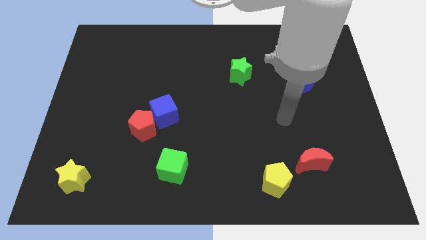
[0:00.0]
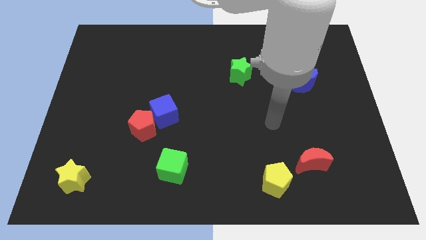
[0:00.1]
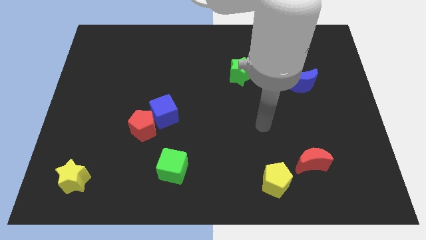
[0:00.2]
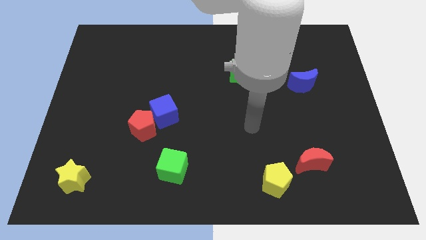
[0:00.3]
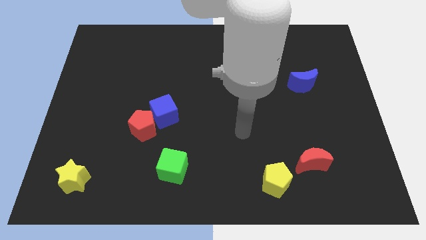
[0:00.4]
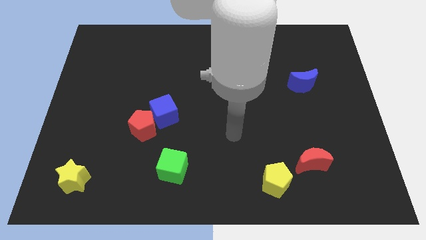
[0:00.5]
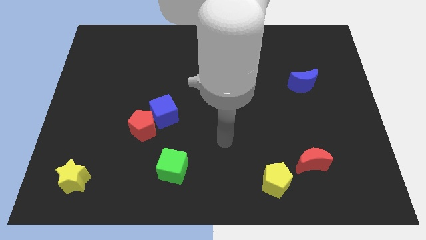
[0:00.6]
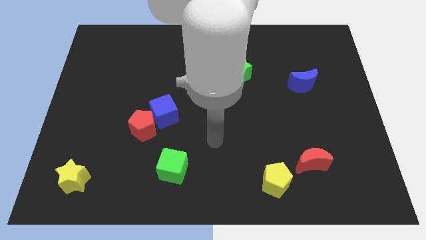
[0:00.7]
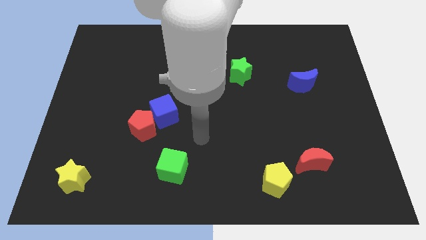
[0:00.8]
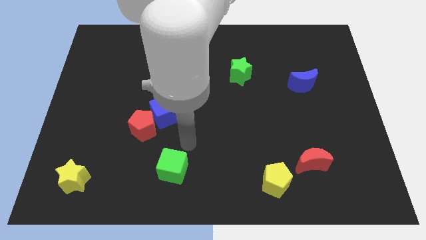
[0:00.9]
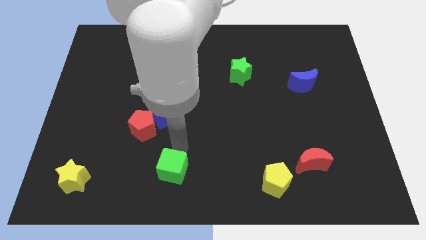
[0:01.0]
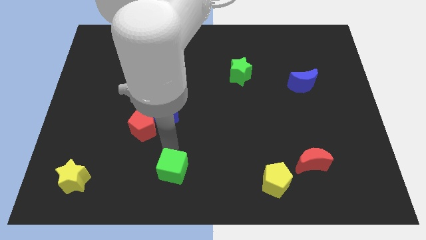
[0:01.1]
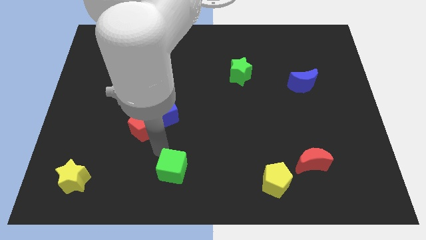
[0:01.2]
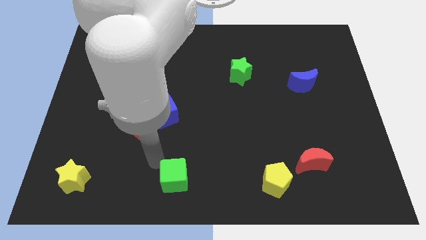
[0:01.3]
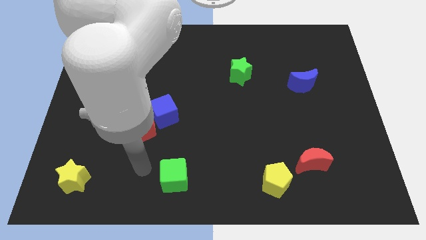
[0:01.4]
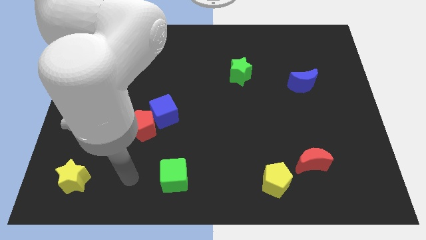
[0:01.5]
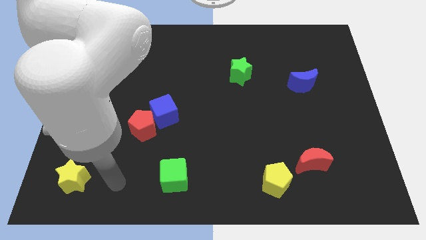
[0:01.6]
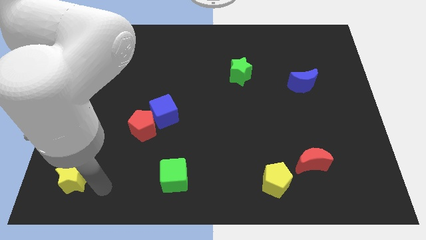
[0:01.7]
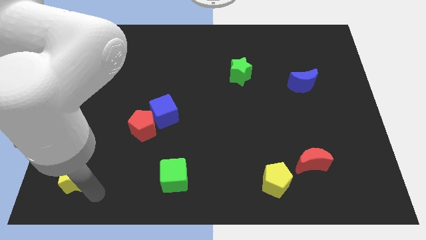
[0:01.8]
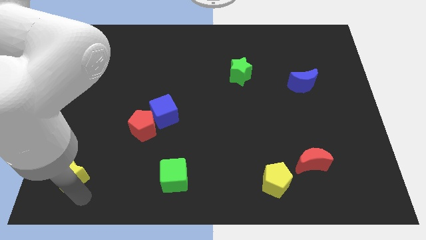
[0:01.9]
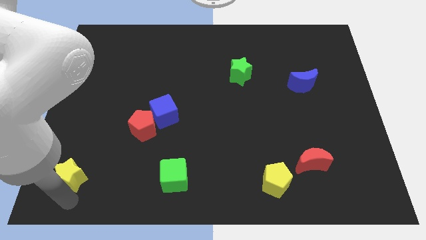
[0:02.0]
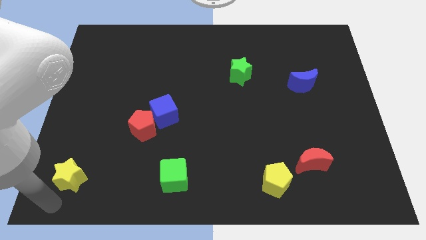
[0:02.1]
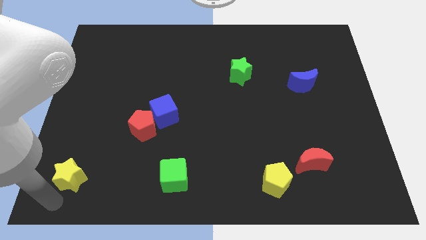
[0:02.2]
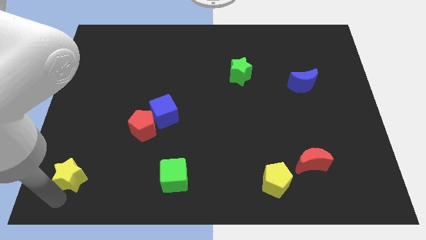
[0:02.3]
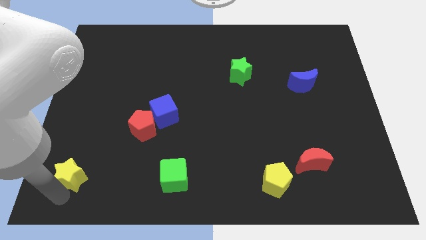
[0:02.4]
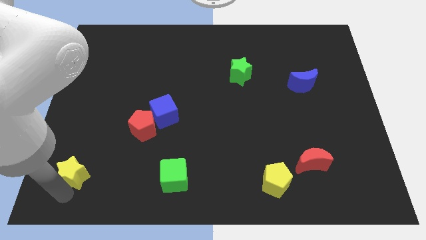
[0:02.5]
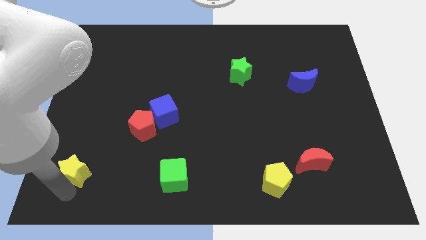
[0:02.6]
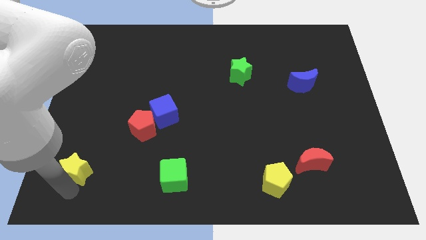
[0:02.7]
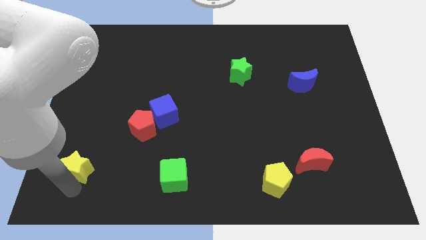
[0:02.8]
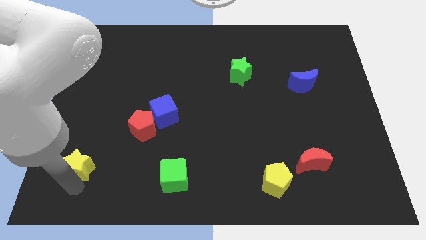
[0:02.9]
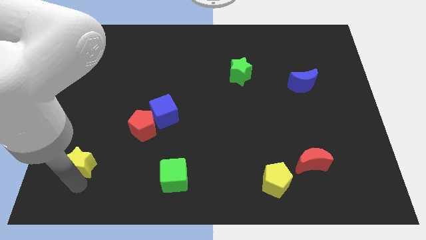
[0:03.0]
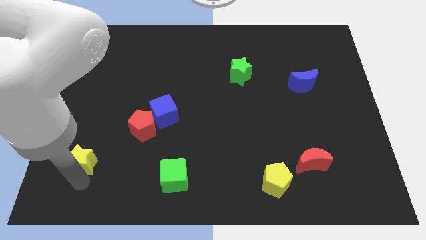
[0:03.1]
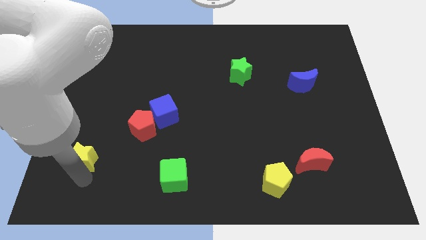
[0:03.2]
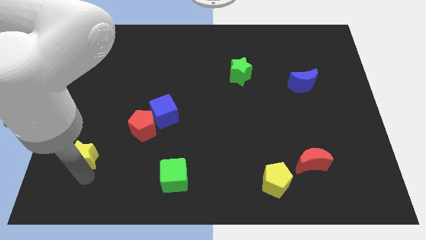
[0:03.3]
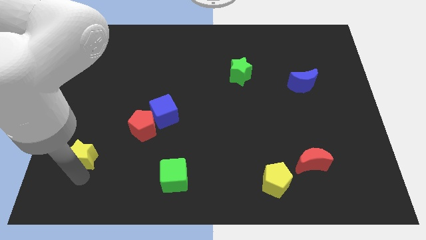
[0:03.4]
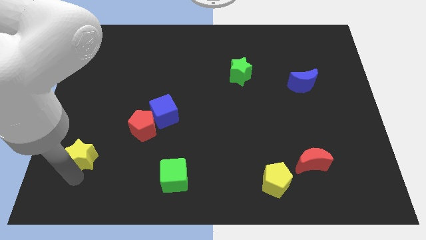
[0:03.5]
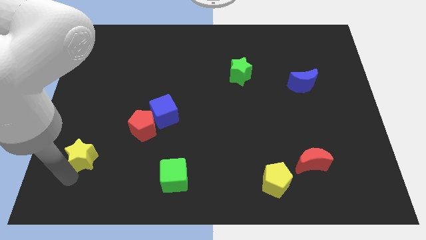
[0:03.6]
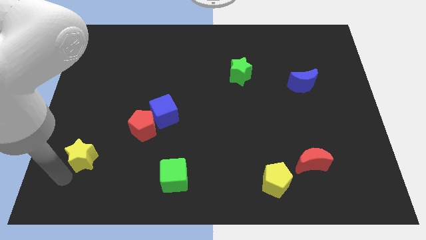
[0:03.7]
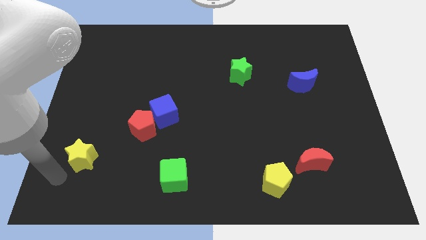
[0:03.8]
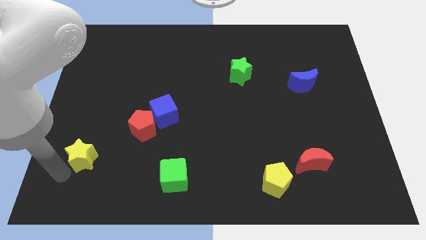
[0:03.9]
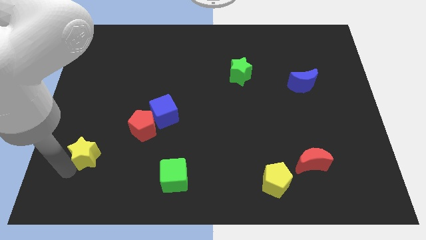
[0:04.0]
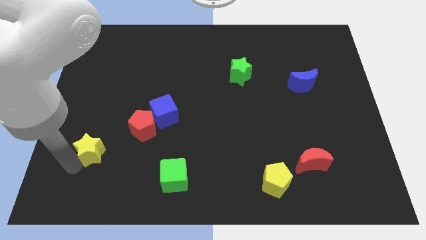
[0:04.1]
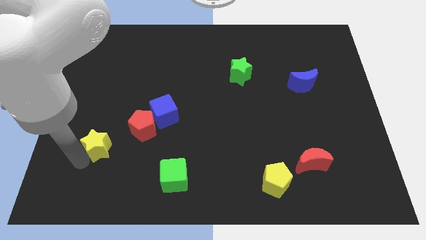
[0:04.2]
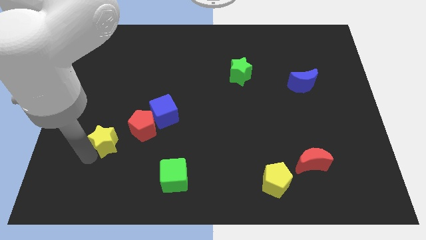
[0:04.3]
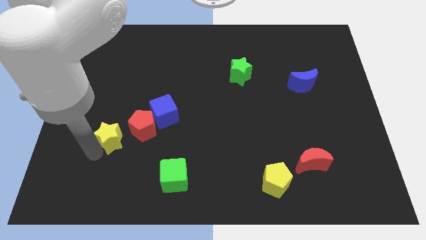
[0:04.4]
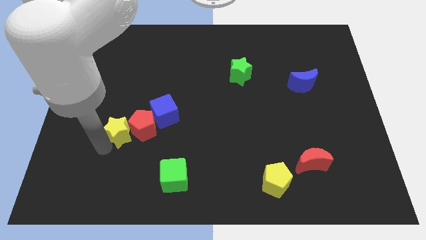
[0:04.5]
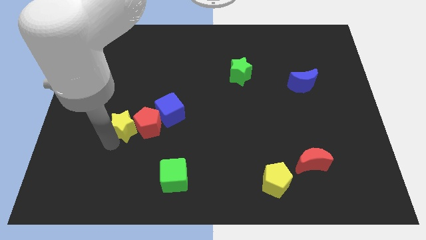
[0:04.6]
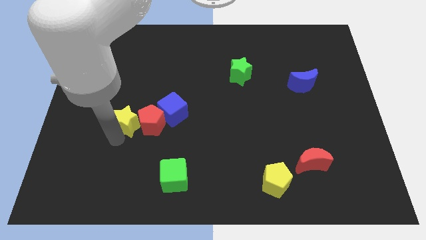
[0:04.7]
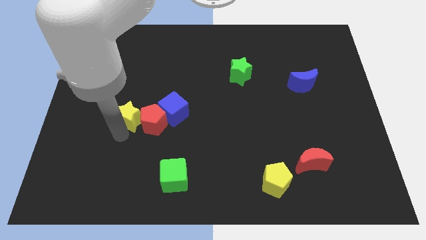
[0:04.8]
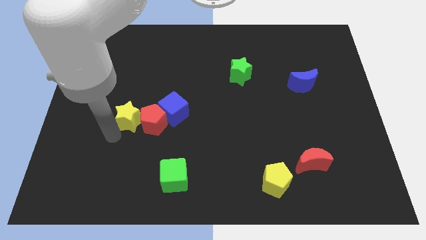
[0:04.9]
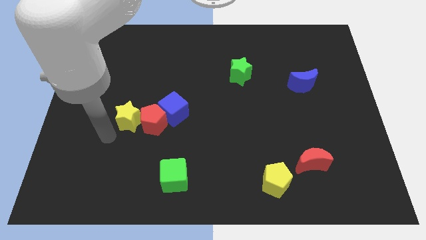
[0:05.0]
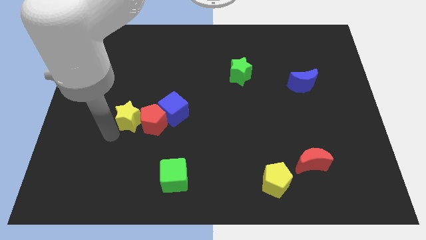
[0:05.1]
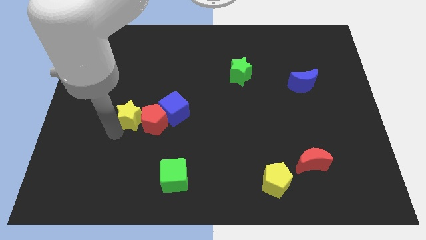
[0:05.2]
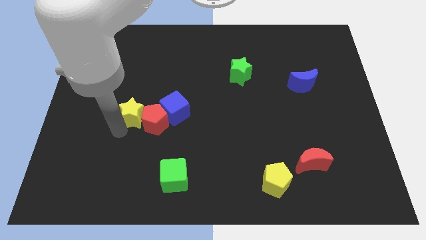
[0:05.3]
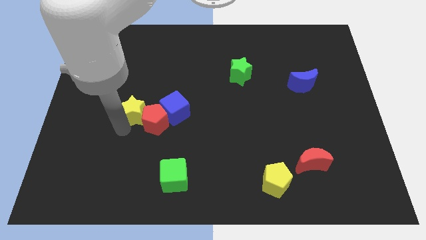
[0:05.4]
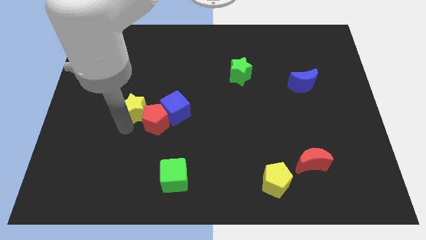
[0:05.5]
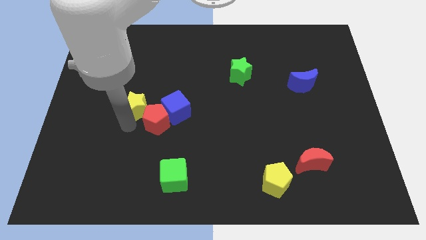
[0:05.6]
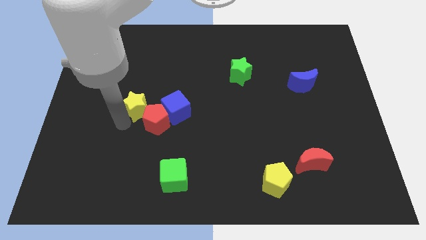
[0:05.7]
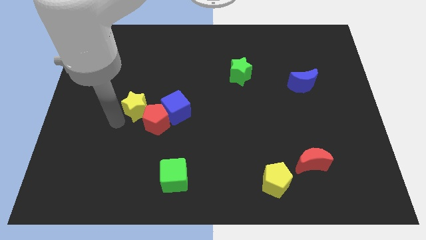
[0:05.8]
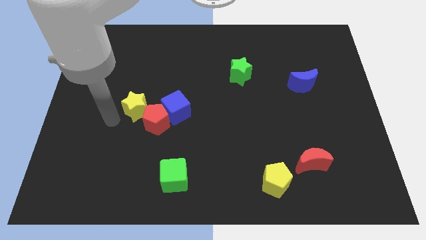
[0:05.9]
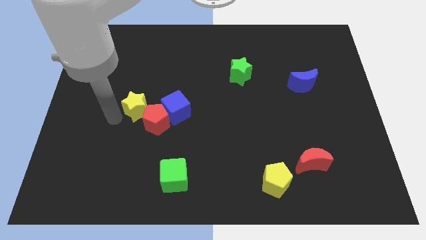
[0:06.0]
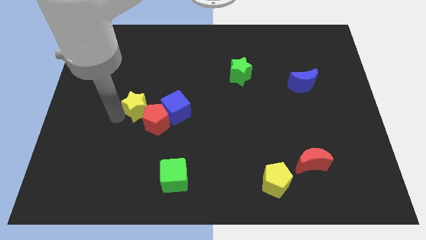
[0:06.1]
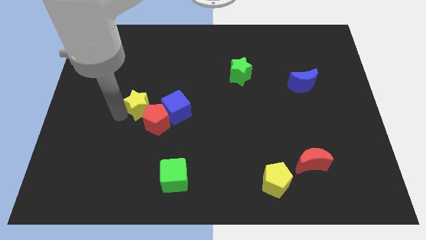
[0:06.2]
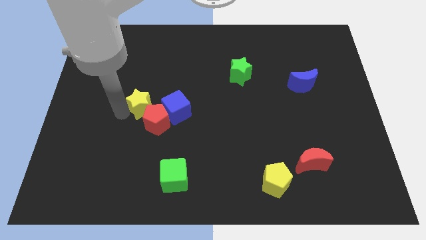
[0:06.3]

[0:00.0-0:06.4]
push the yellow star diagonally up and right

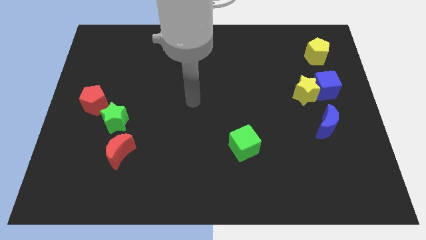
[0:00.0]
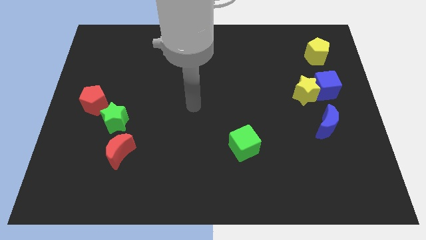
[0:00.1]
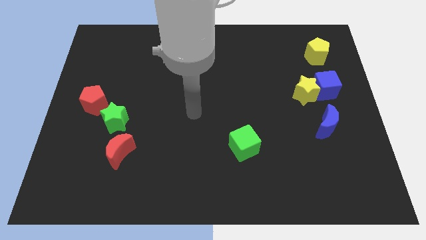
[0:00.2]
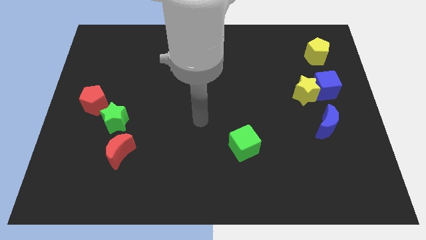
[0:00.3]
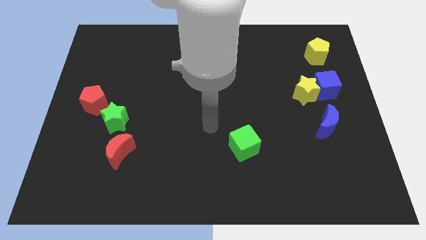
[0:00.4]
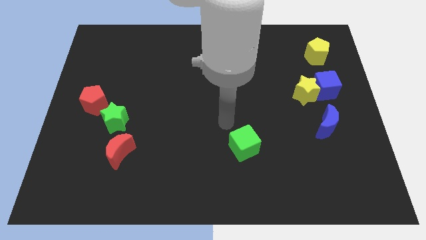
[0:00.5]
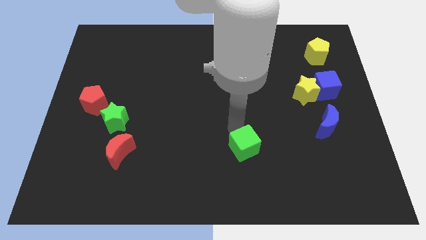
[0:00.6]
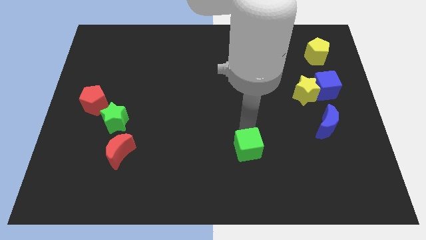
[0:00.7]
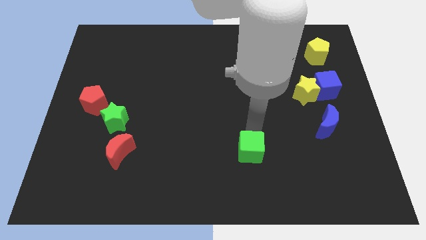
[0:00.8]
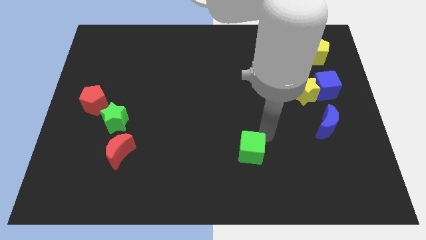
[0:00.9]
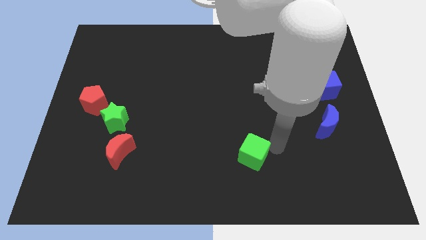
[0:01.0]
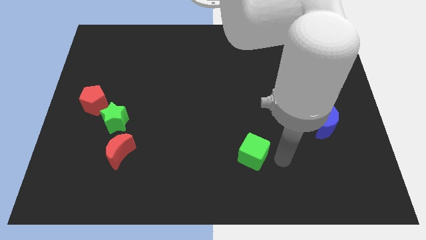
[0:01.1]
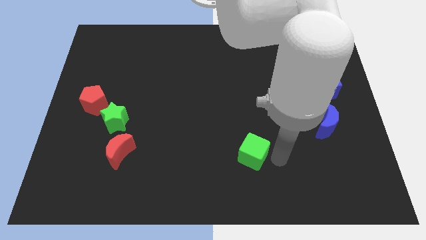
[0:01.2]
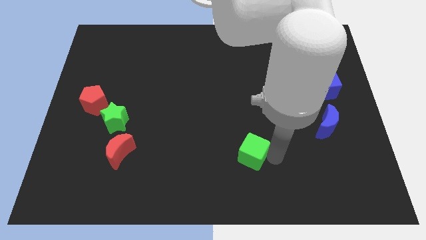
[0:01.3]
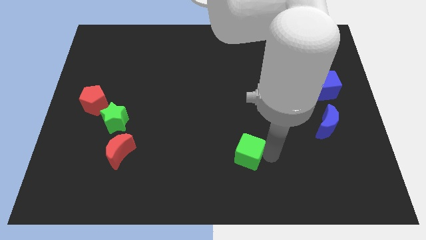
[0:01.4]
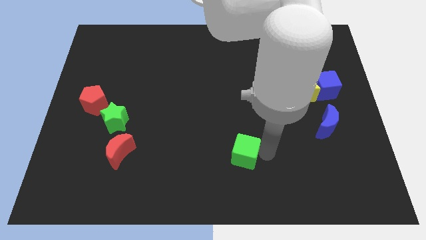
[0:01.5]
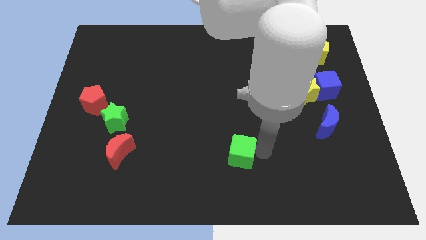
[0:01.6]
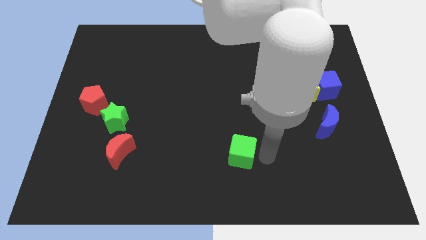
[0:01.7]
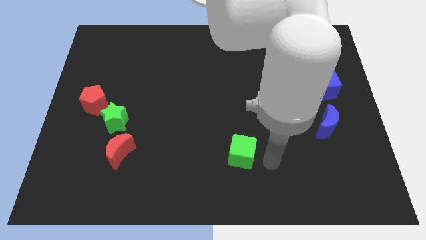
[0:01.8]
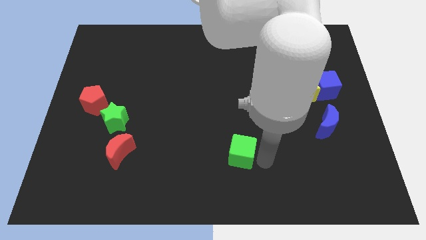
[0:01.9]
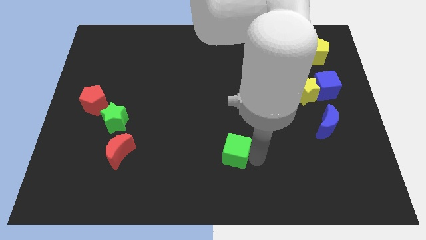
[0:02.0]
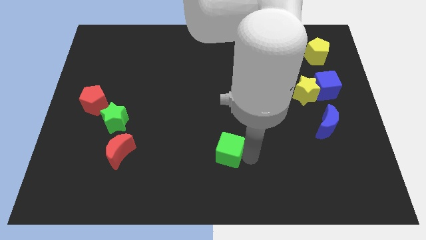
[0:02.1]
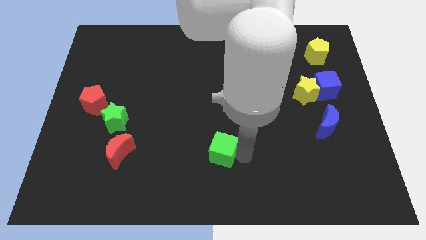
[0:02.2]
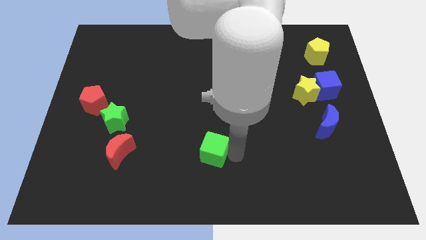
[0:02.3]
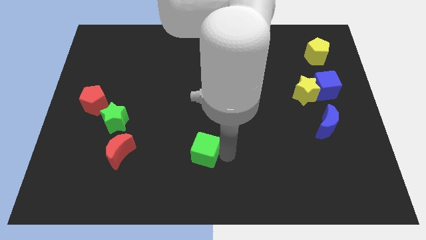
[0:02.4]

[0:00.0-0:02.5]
slightly slide the green cube left
